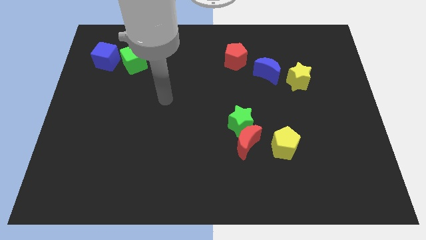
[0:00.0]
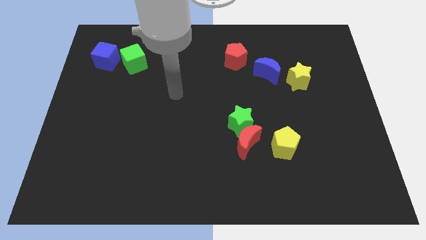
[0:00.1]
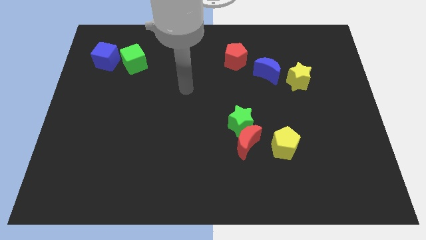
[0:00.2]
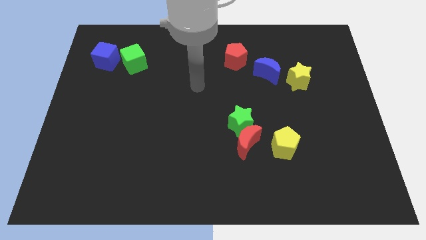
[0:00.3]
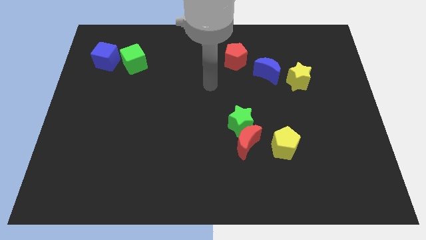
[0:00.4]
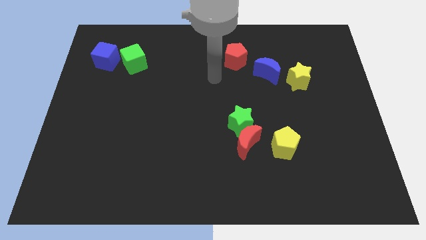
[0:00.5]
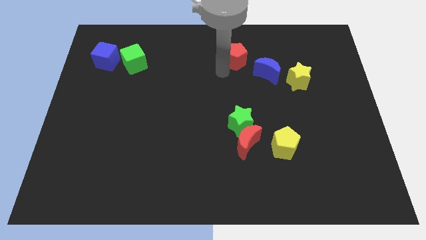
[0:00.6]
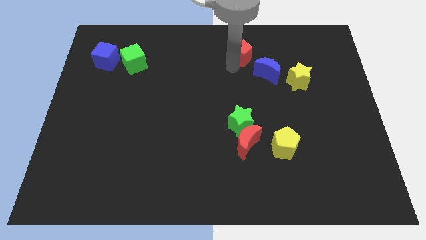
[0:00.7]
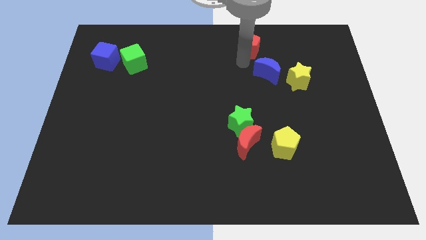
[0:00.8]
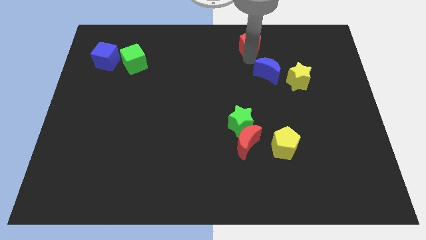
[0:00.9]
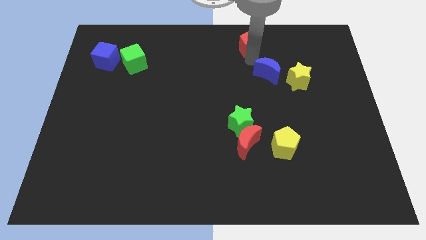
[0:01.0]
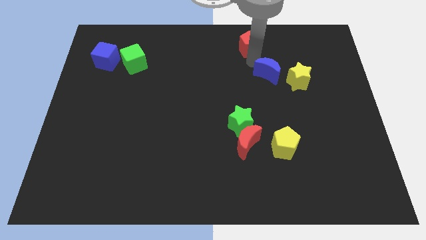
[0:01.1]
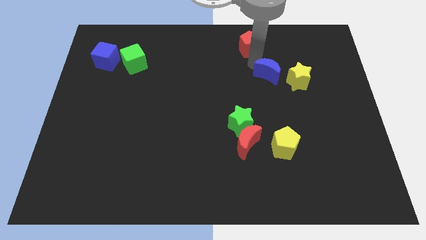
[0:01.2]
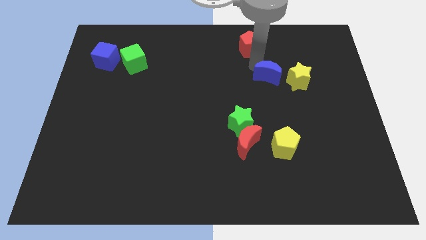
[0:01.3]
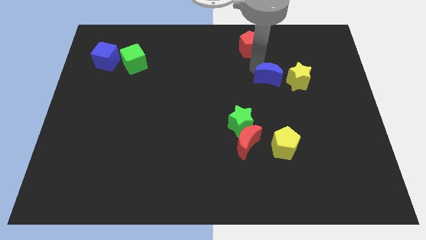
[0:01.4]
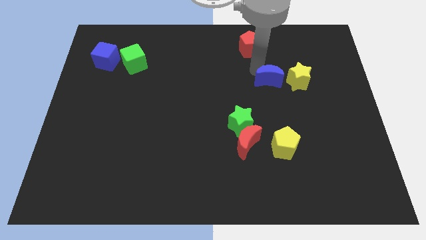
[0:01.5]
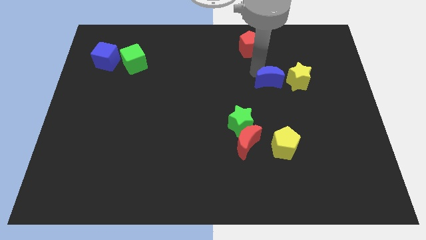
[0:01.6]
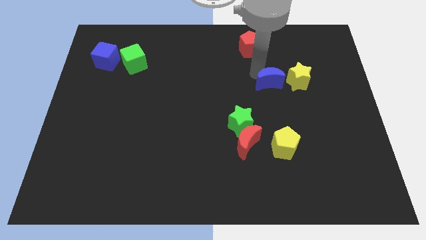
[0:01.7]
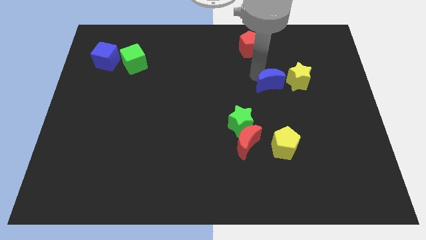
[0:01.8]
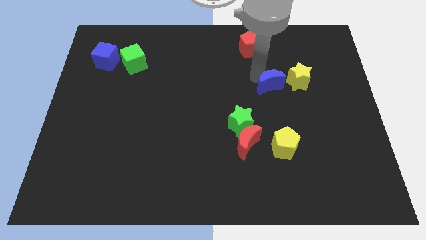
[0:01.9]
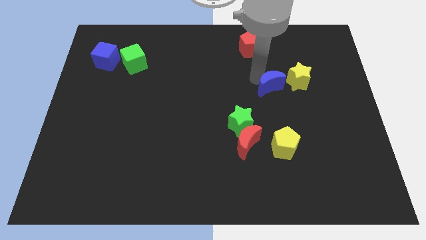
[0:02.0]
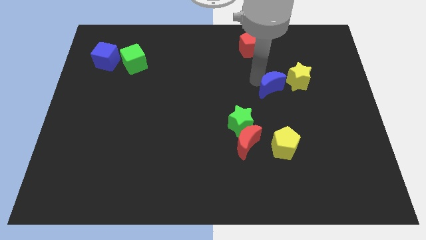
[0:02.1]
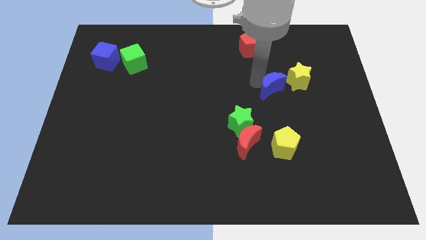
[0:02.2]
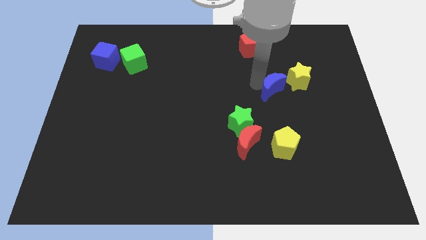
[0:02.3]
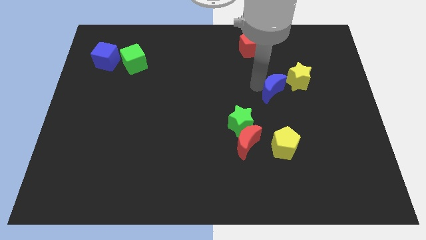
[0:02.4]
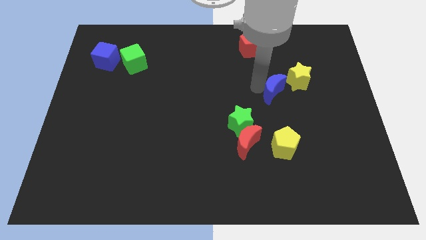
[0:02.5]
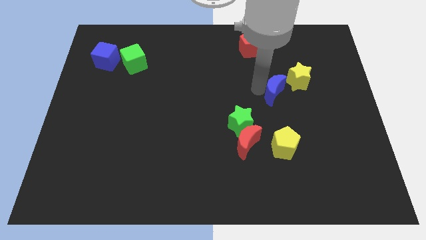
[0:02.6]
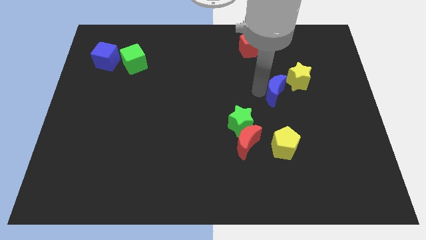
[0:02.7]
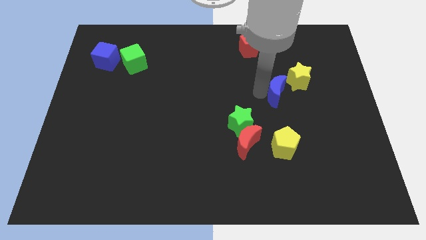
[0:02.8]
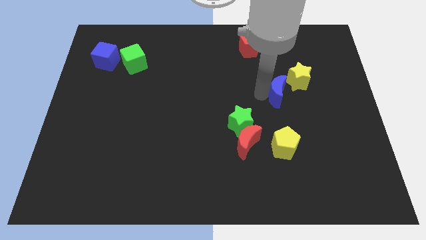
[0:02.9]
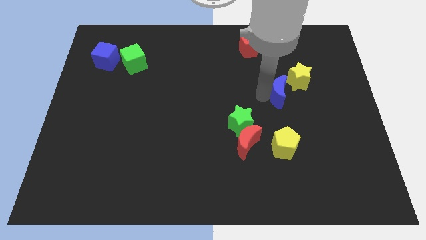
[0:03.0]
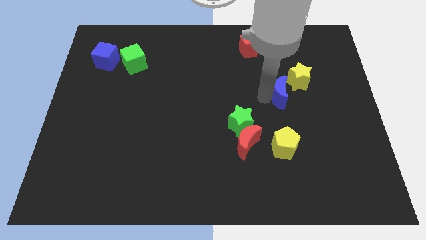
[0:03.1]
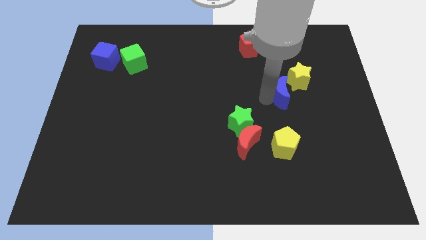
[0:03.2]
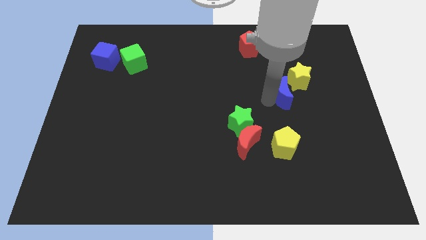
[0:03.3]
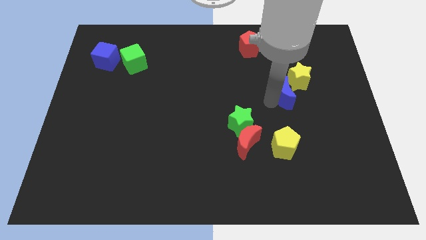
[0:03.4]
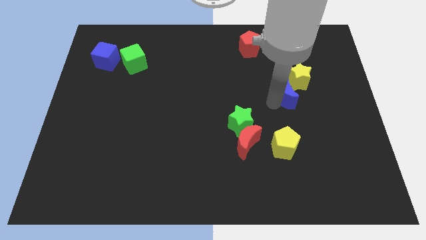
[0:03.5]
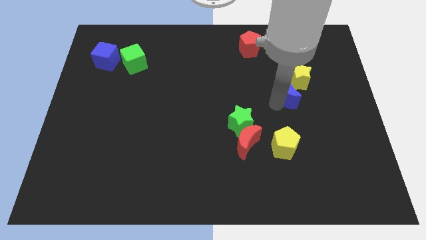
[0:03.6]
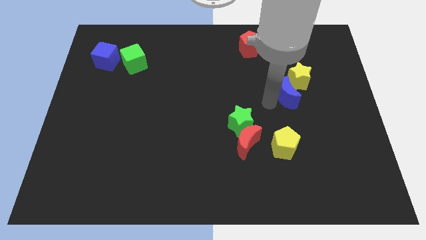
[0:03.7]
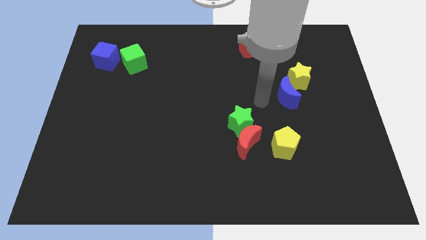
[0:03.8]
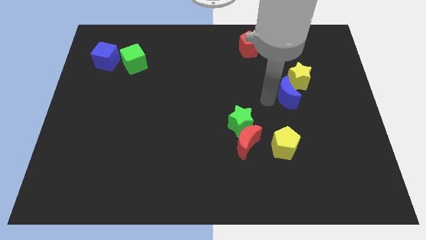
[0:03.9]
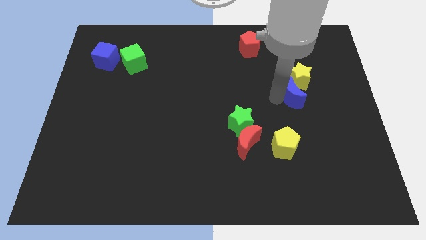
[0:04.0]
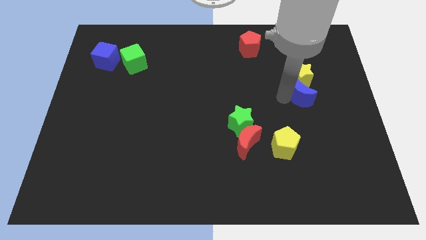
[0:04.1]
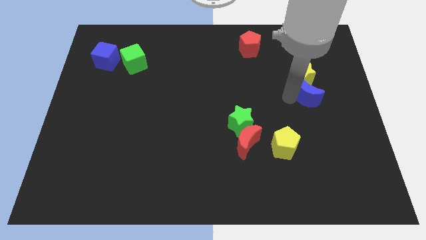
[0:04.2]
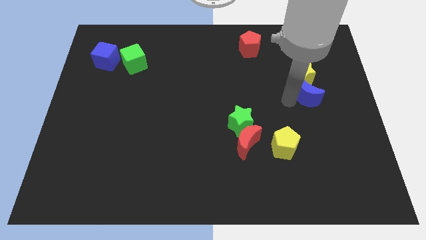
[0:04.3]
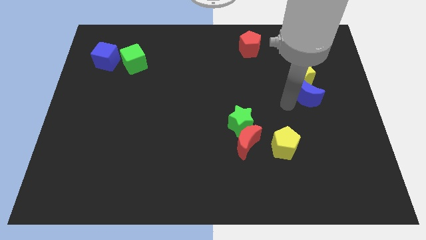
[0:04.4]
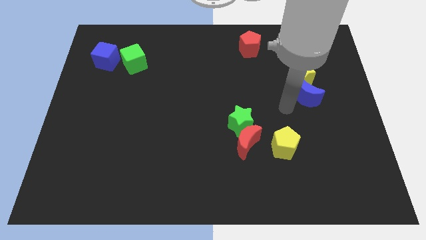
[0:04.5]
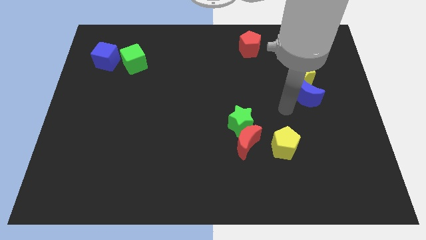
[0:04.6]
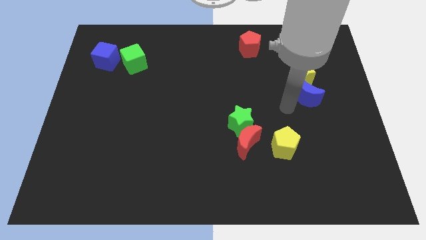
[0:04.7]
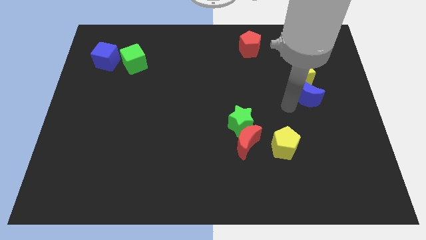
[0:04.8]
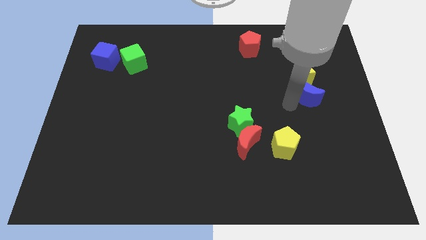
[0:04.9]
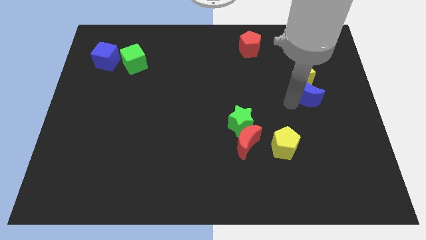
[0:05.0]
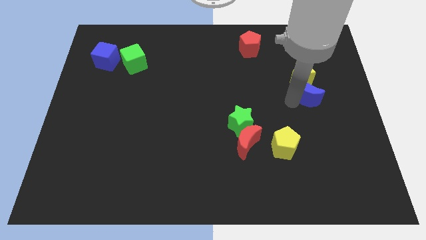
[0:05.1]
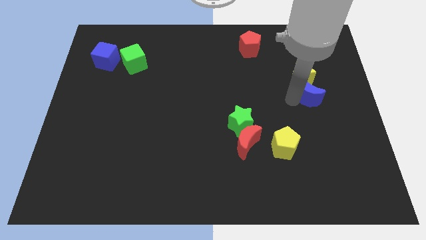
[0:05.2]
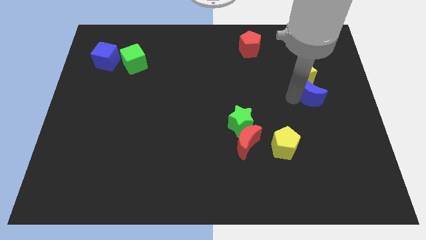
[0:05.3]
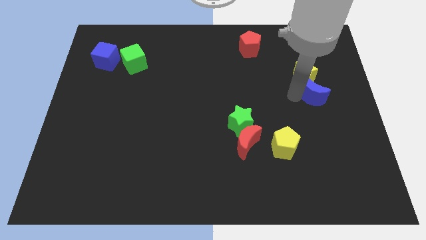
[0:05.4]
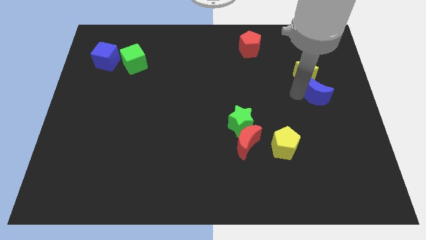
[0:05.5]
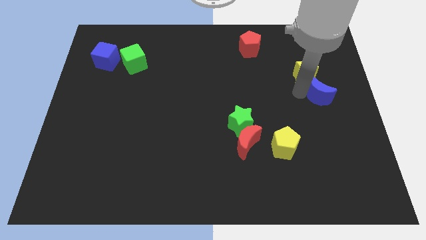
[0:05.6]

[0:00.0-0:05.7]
slide the blue moon to the center right

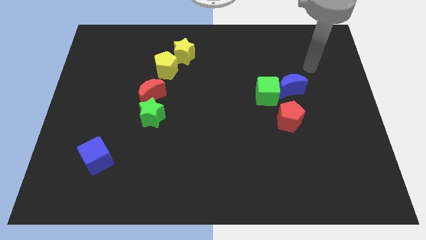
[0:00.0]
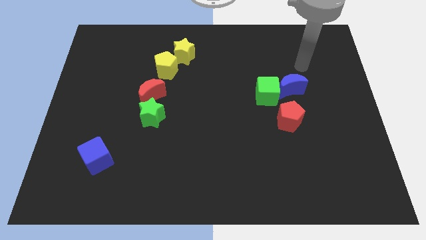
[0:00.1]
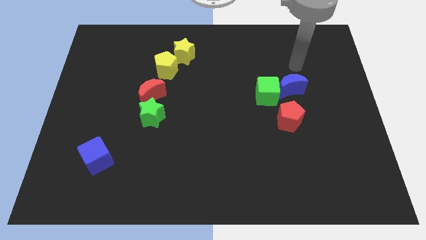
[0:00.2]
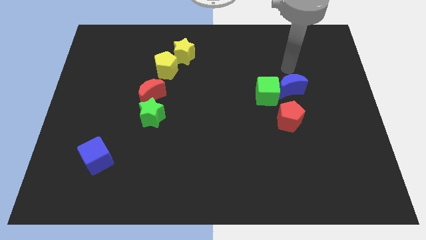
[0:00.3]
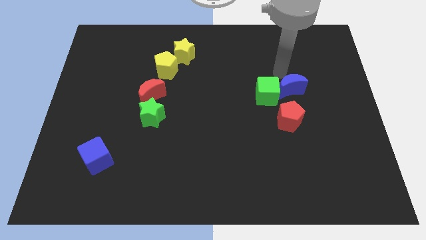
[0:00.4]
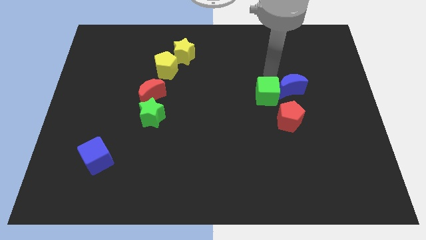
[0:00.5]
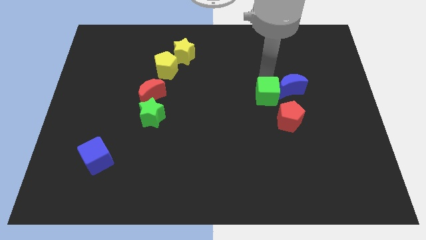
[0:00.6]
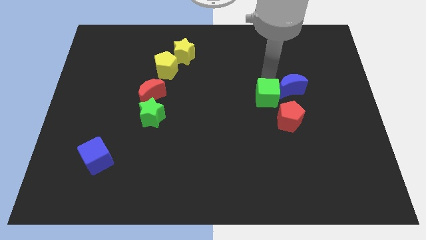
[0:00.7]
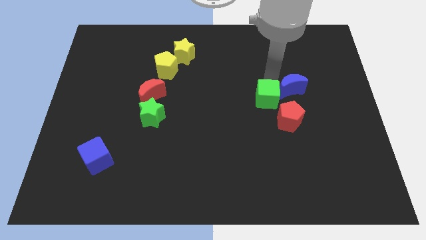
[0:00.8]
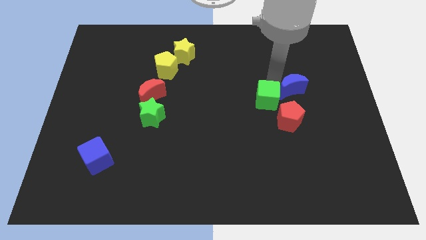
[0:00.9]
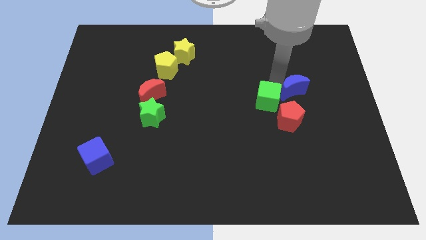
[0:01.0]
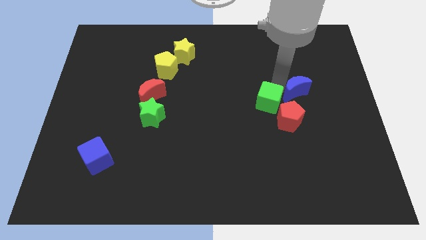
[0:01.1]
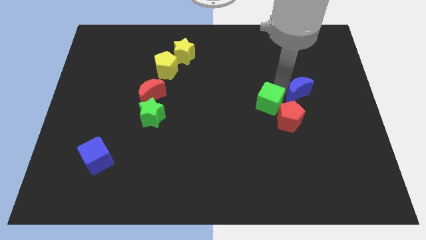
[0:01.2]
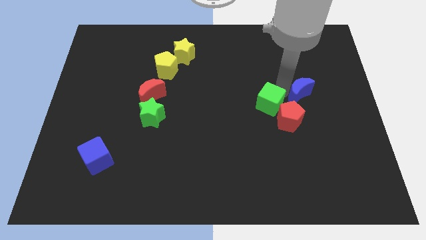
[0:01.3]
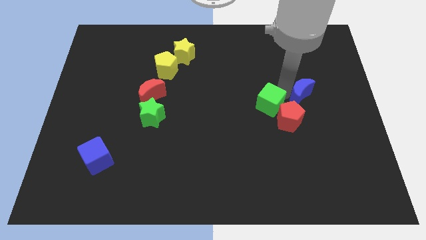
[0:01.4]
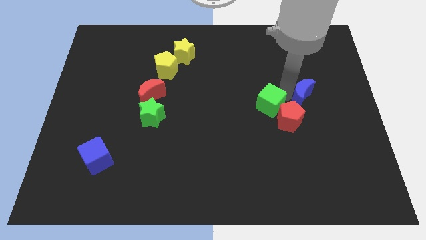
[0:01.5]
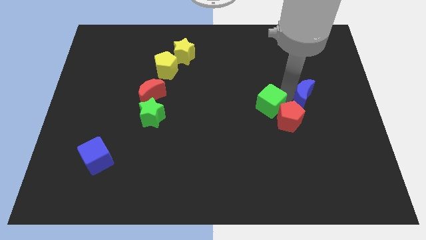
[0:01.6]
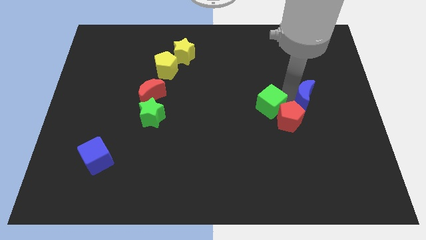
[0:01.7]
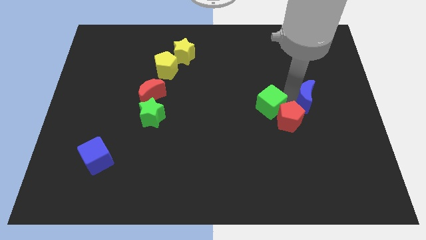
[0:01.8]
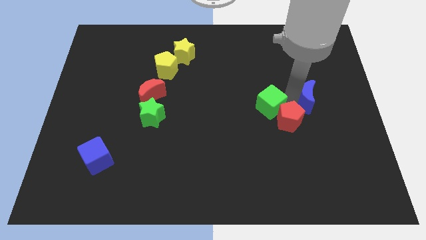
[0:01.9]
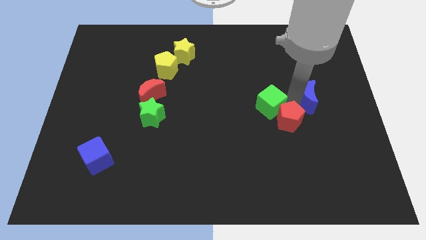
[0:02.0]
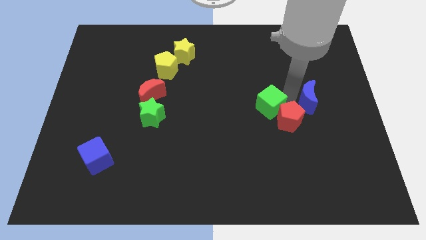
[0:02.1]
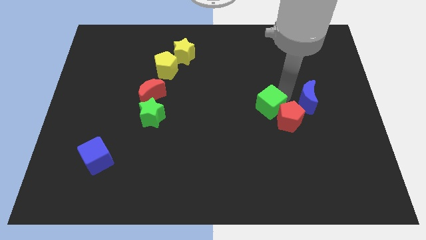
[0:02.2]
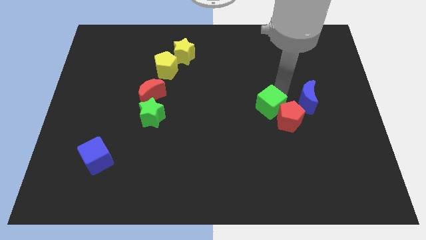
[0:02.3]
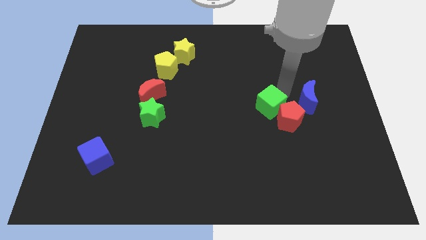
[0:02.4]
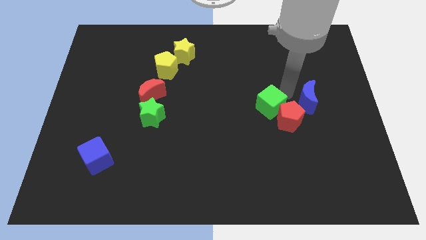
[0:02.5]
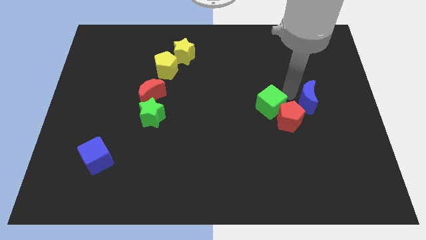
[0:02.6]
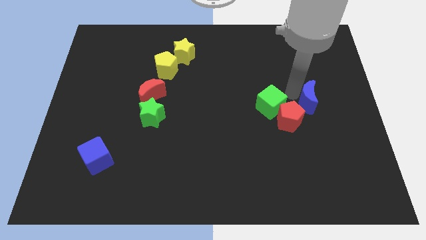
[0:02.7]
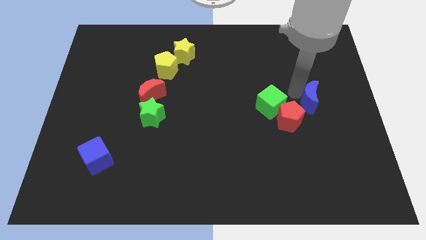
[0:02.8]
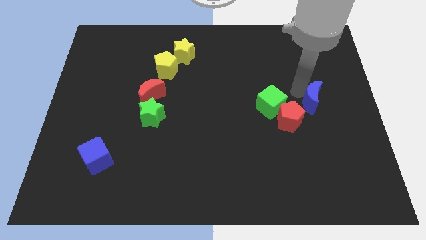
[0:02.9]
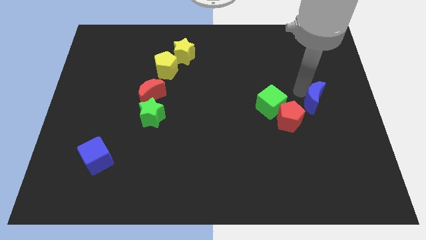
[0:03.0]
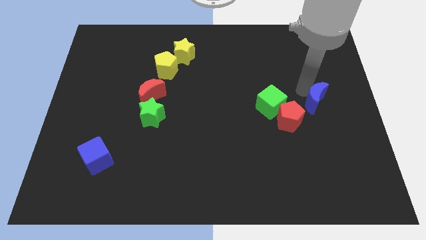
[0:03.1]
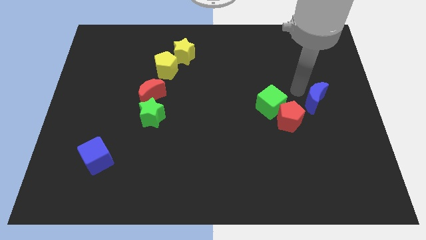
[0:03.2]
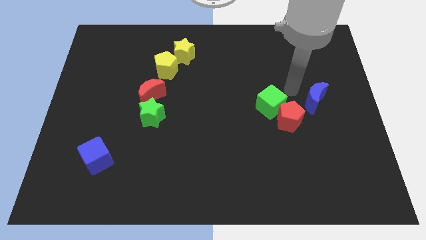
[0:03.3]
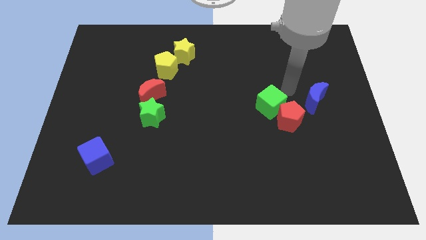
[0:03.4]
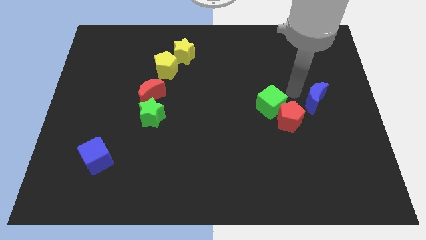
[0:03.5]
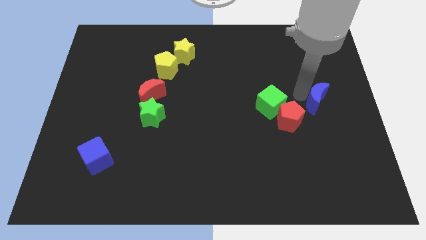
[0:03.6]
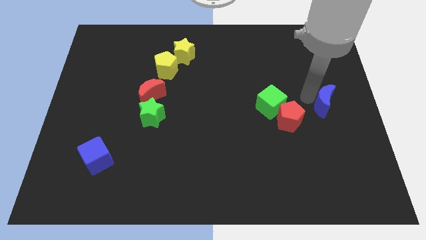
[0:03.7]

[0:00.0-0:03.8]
put the blue moon to the center right
